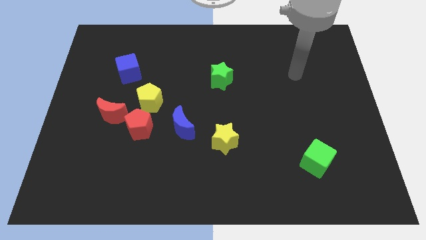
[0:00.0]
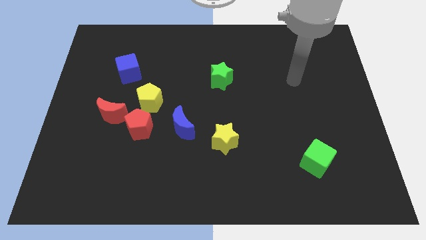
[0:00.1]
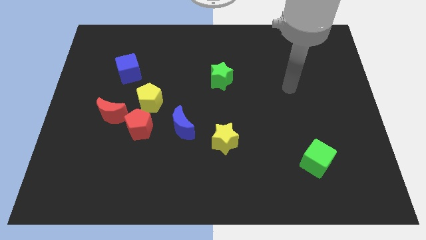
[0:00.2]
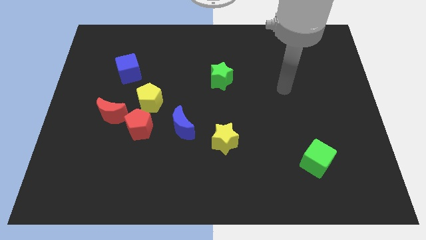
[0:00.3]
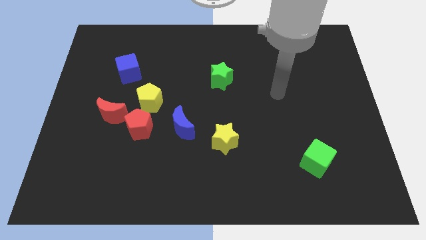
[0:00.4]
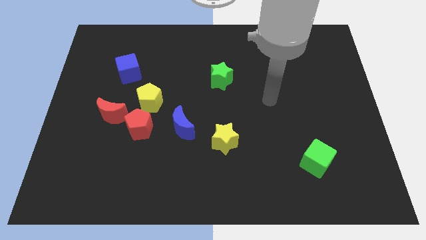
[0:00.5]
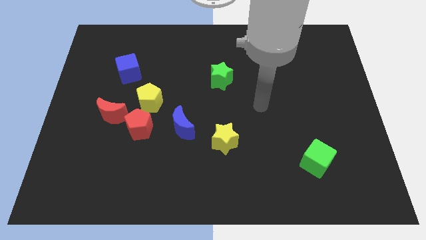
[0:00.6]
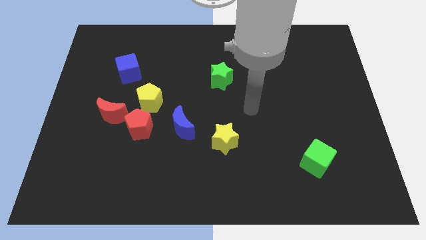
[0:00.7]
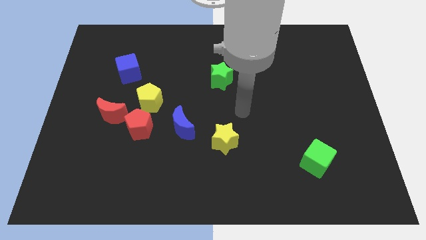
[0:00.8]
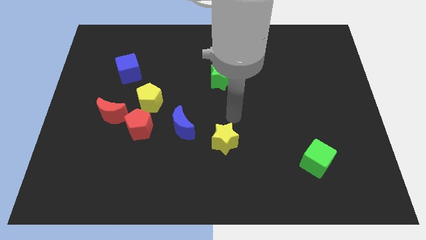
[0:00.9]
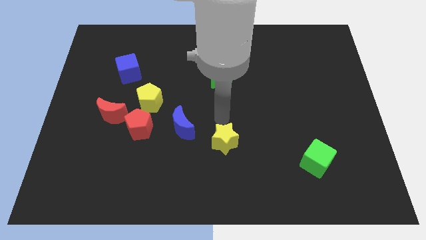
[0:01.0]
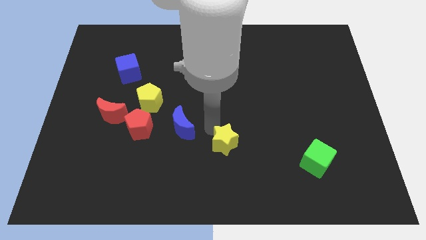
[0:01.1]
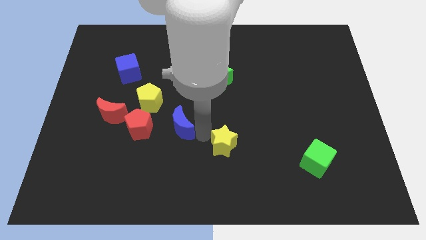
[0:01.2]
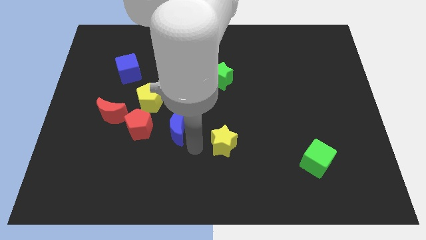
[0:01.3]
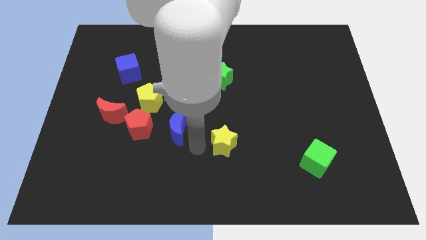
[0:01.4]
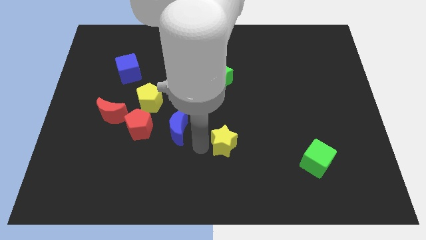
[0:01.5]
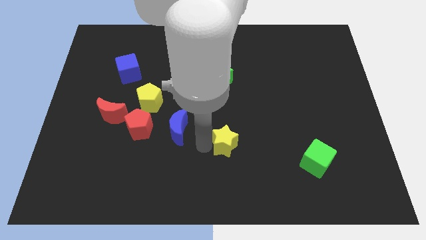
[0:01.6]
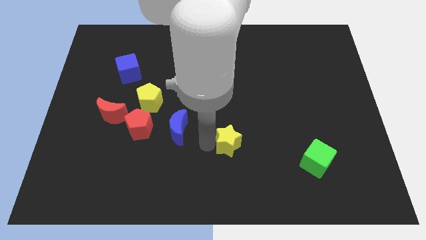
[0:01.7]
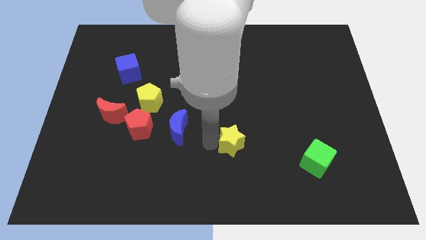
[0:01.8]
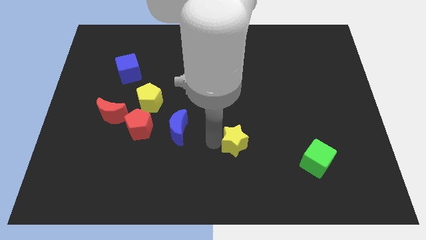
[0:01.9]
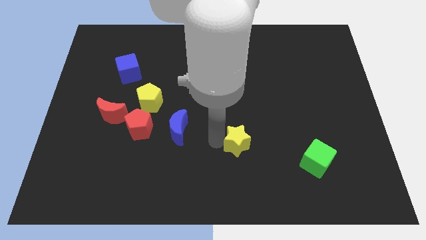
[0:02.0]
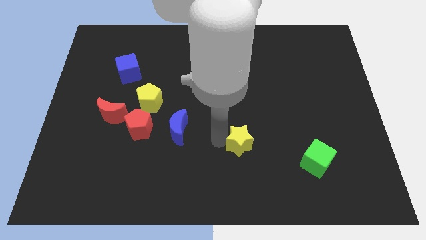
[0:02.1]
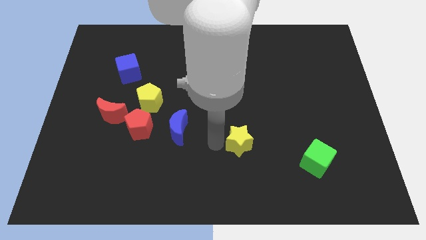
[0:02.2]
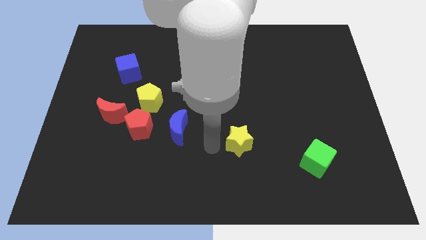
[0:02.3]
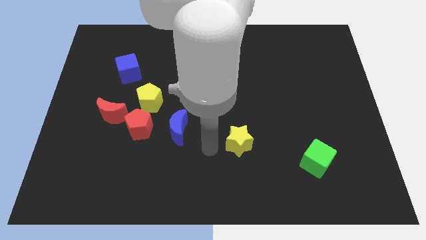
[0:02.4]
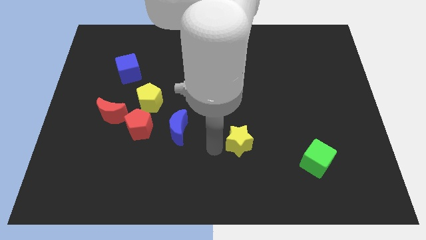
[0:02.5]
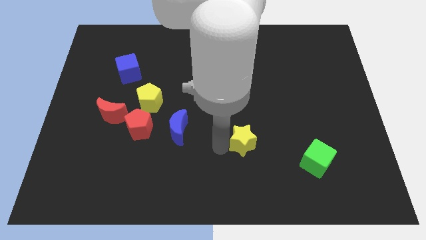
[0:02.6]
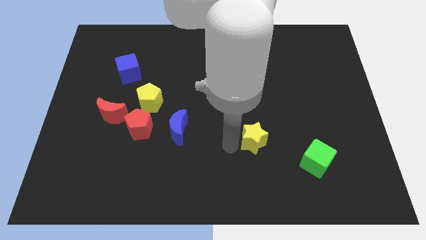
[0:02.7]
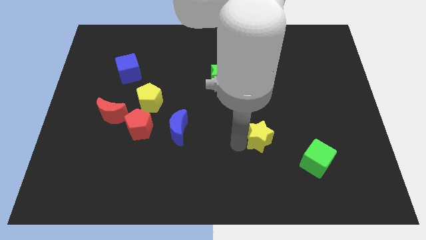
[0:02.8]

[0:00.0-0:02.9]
slightly slide the yellow star right

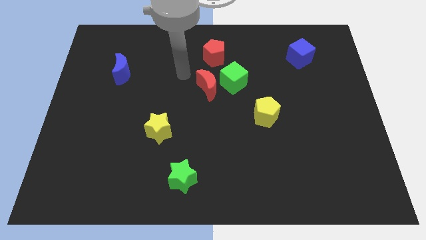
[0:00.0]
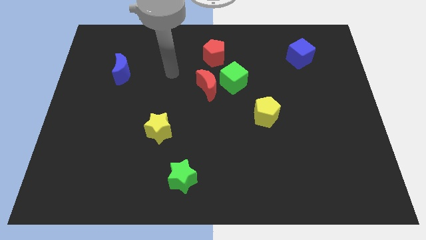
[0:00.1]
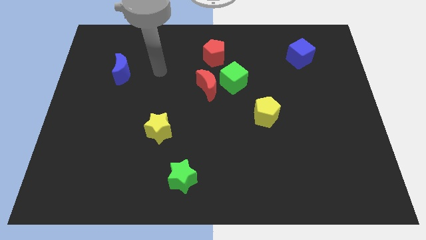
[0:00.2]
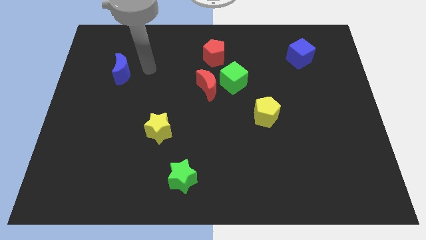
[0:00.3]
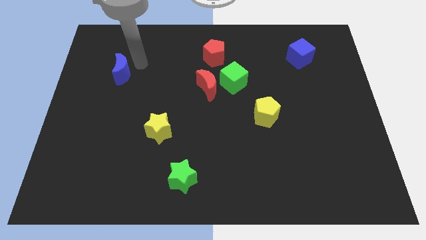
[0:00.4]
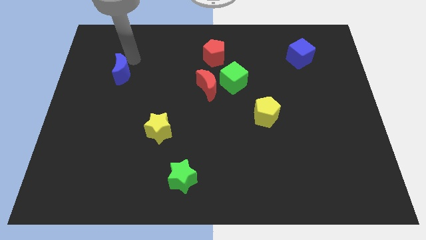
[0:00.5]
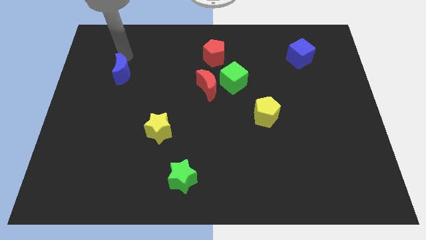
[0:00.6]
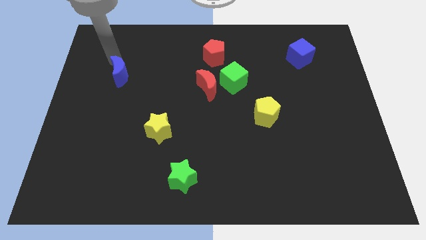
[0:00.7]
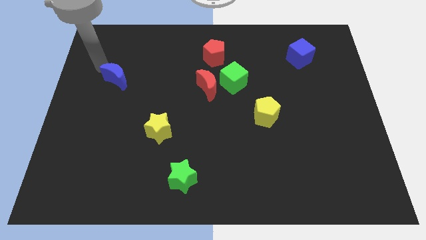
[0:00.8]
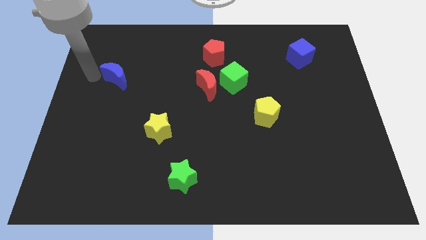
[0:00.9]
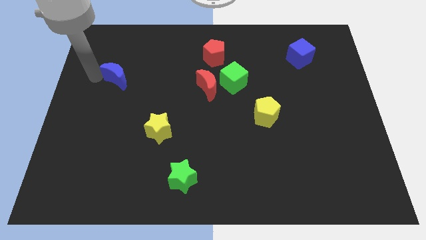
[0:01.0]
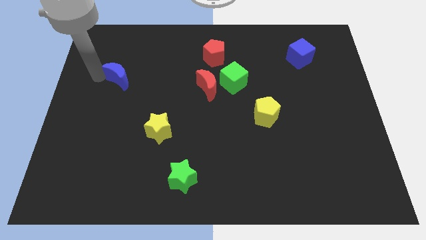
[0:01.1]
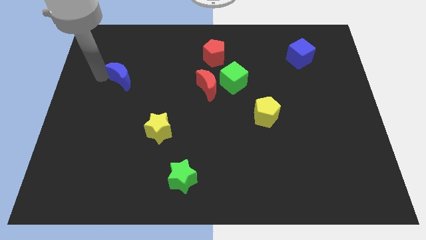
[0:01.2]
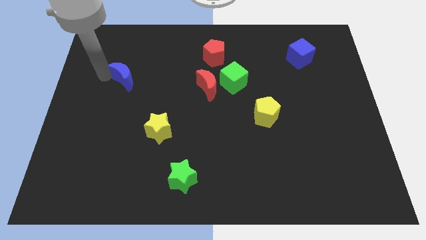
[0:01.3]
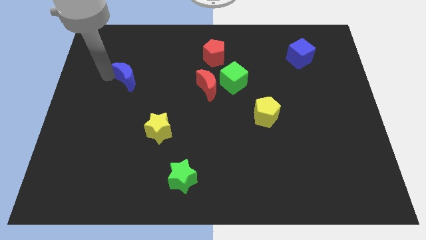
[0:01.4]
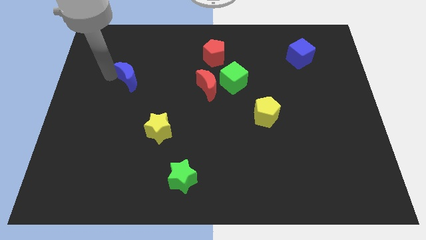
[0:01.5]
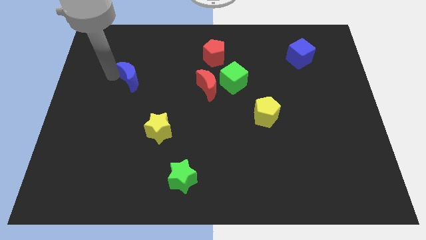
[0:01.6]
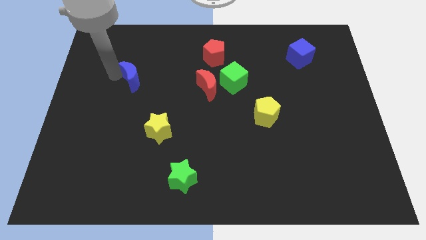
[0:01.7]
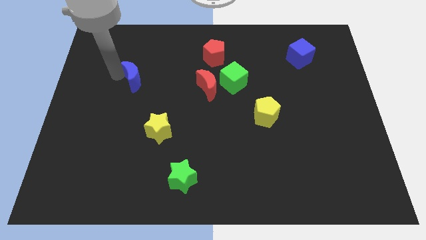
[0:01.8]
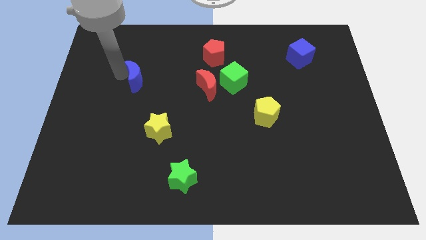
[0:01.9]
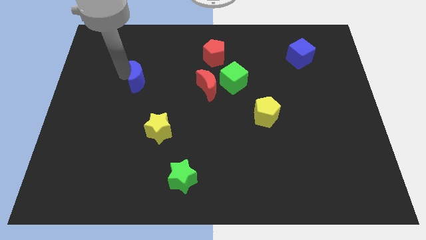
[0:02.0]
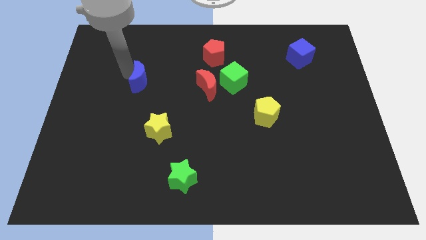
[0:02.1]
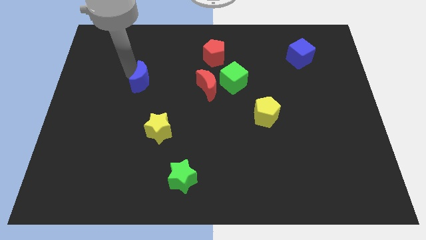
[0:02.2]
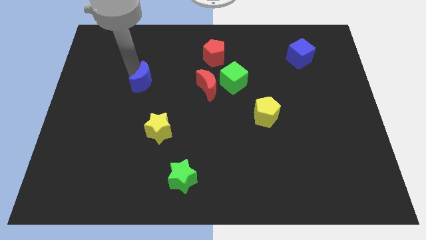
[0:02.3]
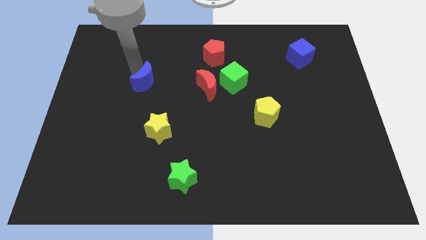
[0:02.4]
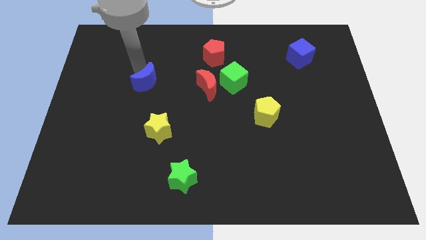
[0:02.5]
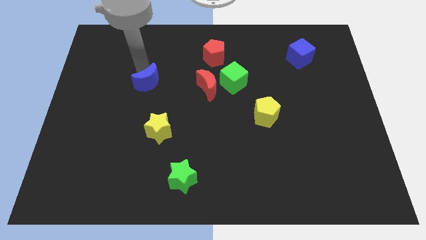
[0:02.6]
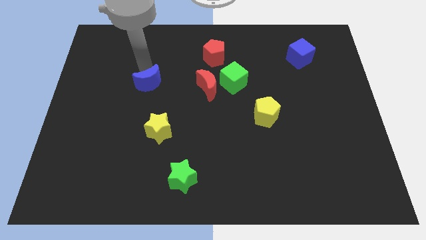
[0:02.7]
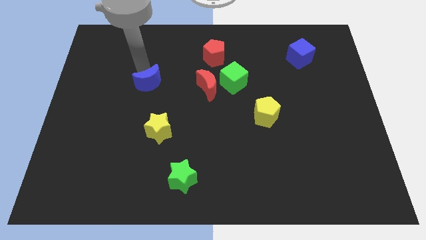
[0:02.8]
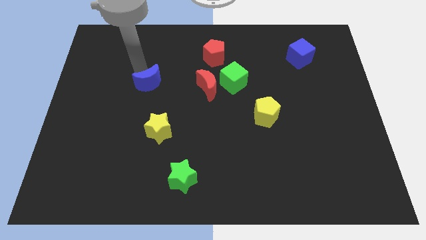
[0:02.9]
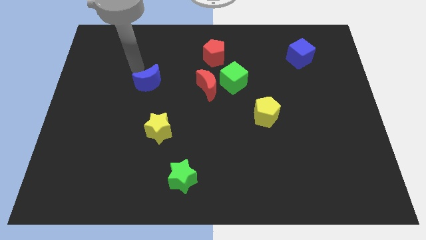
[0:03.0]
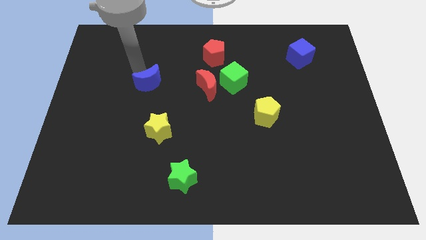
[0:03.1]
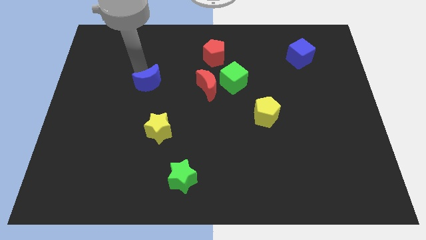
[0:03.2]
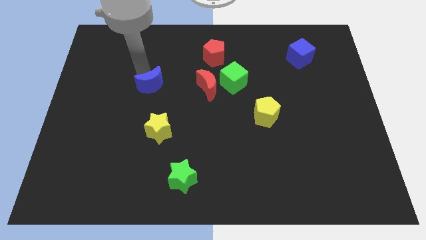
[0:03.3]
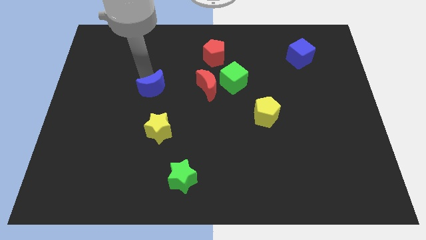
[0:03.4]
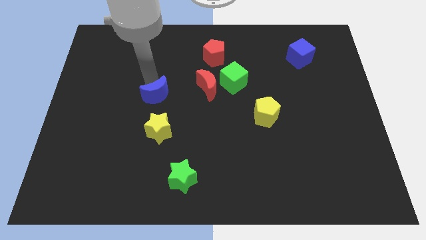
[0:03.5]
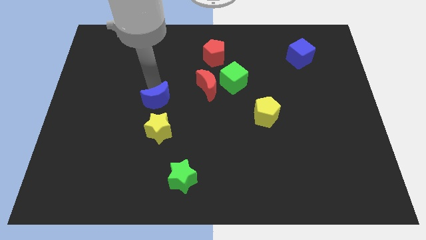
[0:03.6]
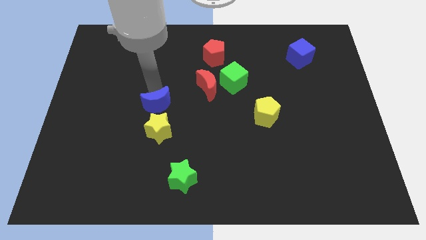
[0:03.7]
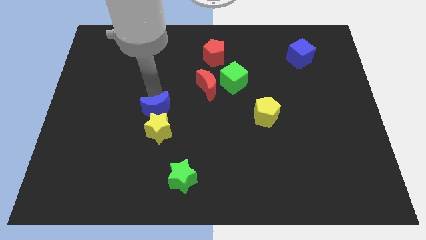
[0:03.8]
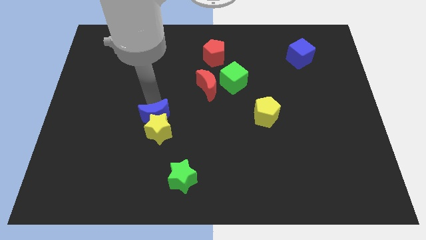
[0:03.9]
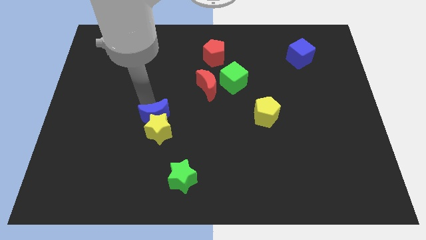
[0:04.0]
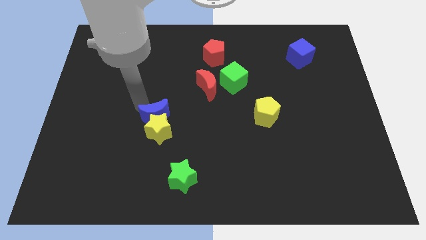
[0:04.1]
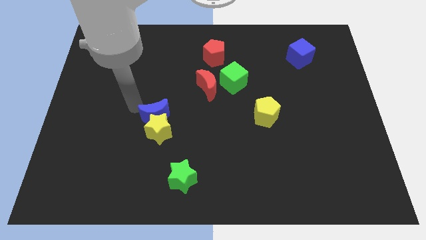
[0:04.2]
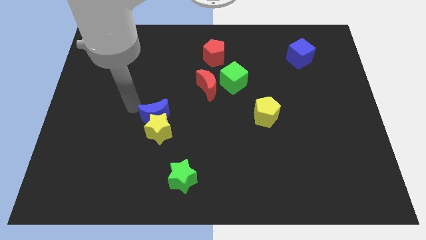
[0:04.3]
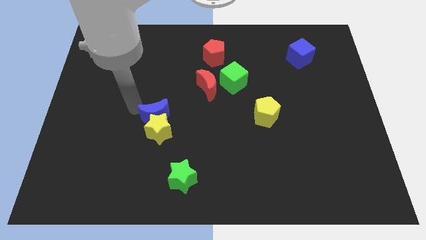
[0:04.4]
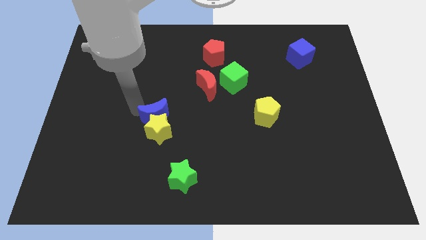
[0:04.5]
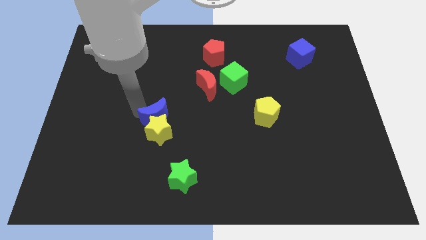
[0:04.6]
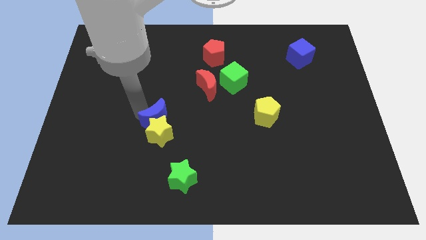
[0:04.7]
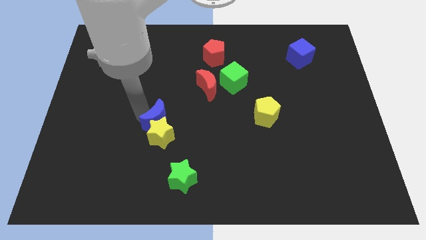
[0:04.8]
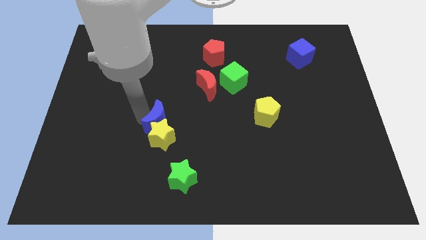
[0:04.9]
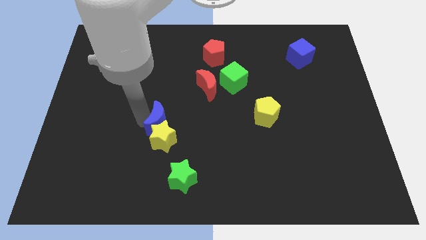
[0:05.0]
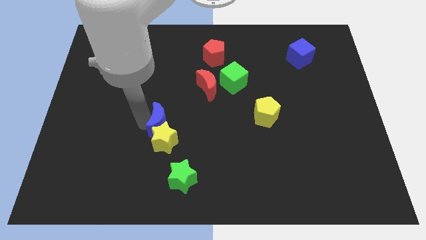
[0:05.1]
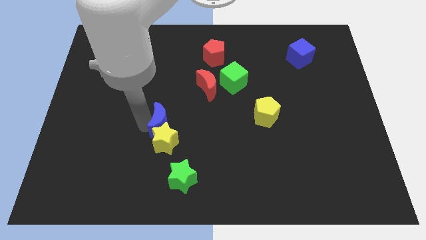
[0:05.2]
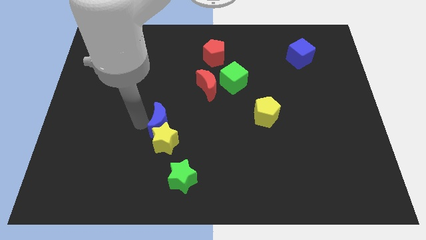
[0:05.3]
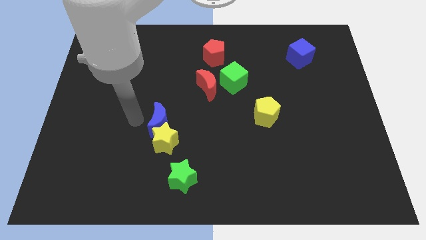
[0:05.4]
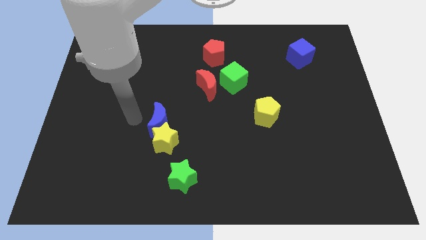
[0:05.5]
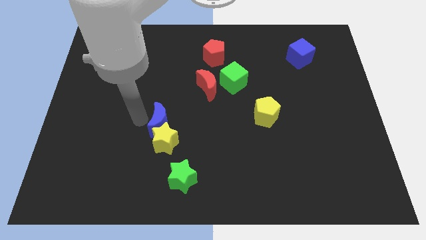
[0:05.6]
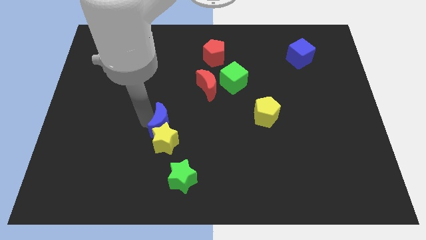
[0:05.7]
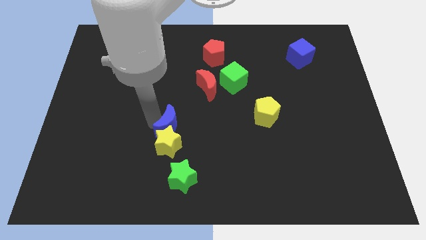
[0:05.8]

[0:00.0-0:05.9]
push the blue moon down and to the right diagonally
